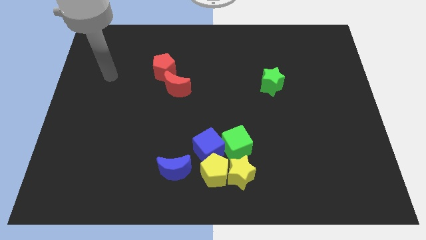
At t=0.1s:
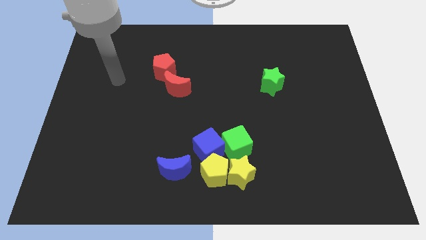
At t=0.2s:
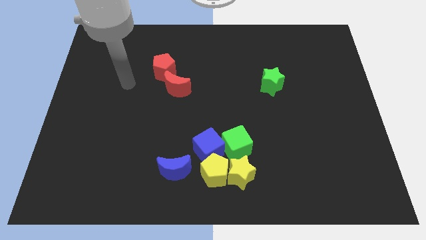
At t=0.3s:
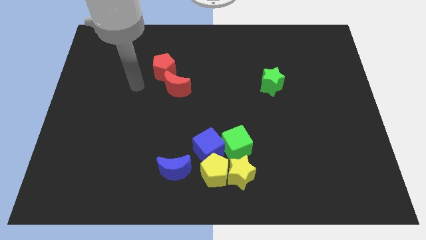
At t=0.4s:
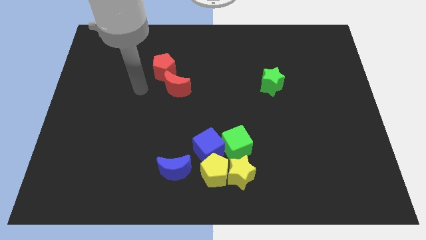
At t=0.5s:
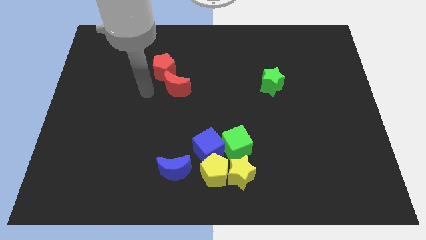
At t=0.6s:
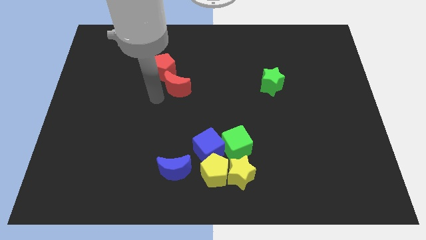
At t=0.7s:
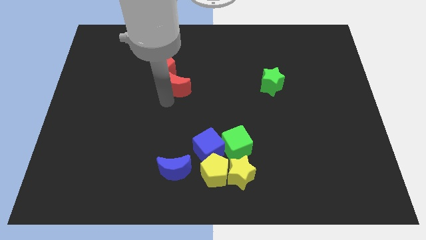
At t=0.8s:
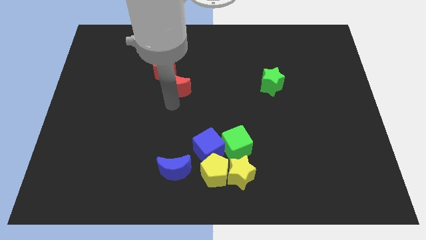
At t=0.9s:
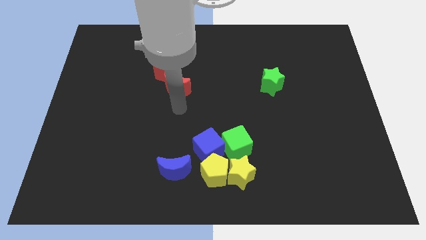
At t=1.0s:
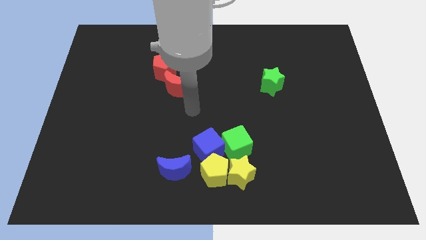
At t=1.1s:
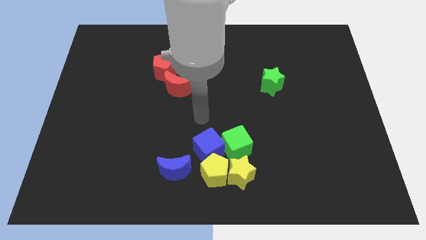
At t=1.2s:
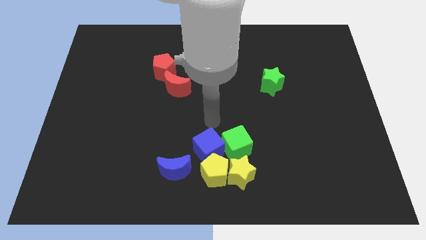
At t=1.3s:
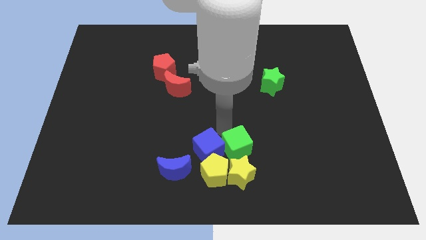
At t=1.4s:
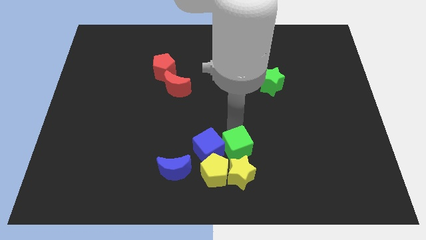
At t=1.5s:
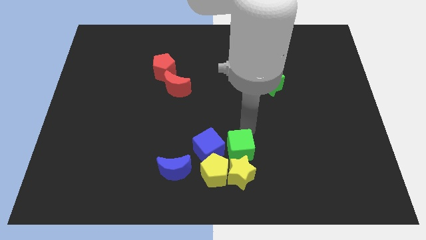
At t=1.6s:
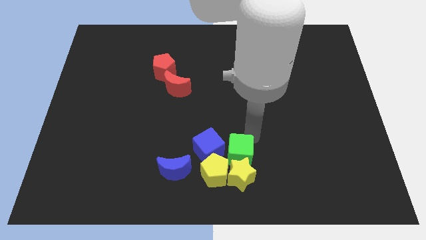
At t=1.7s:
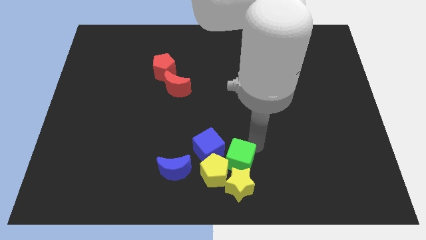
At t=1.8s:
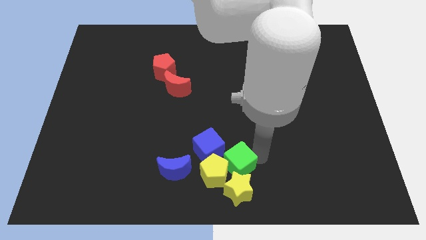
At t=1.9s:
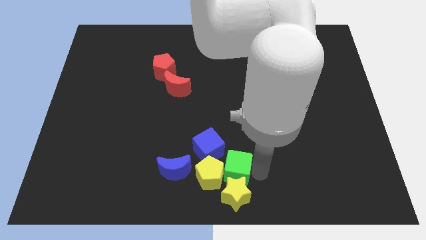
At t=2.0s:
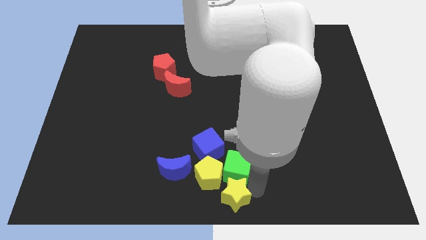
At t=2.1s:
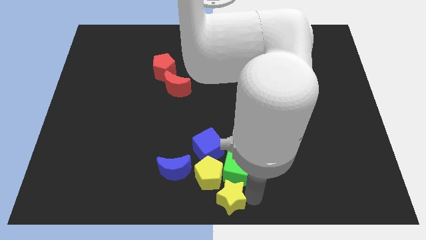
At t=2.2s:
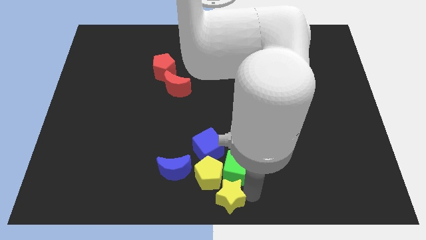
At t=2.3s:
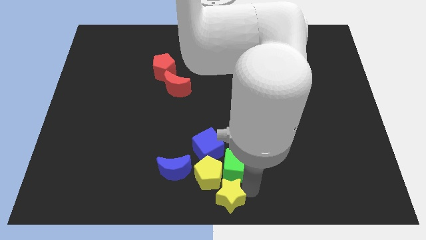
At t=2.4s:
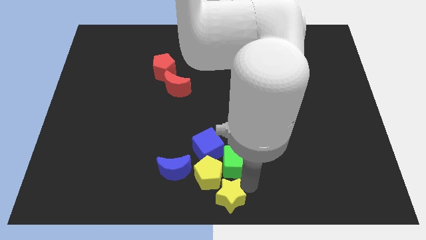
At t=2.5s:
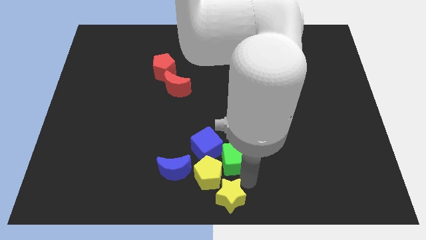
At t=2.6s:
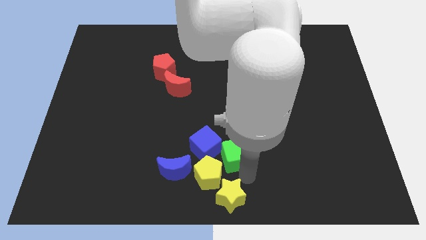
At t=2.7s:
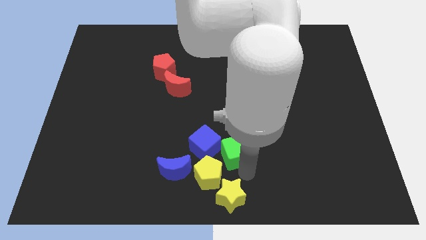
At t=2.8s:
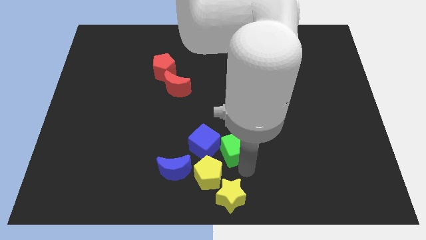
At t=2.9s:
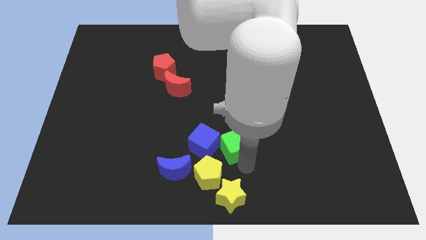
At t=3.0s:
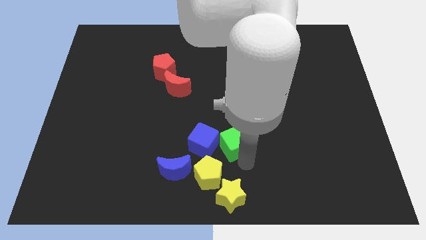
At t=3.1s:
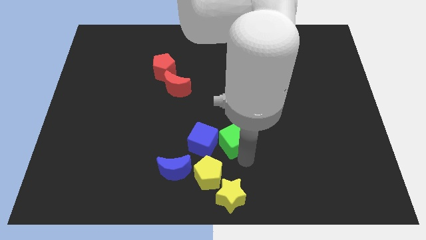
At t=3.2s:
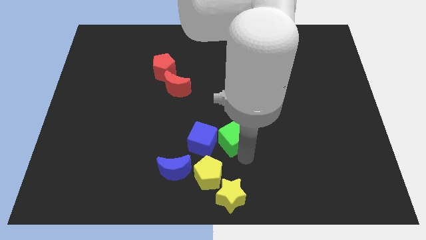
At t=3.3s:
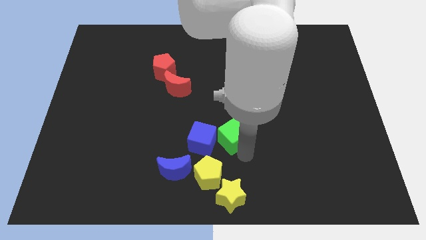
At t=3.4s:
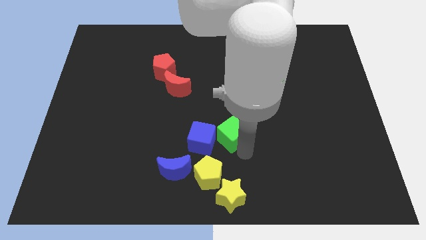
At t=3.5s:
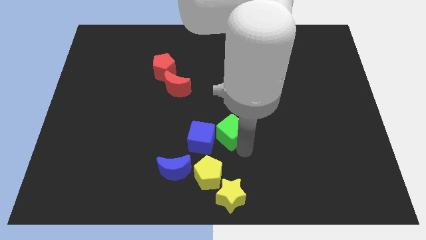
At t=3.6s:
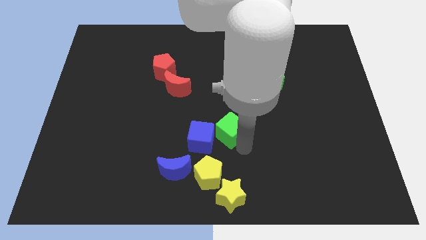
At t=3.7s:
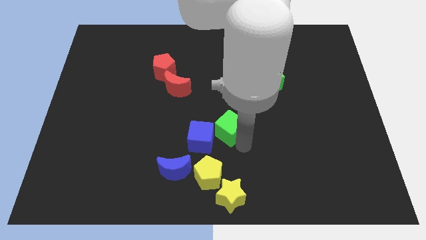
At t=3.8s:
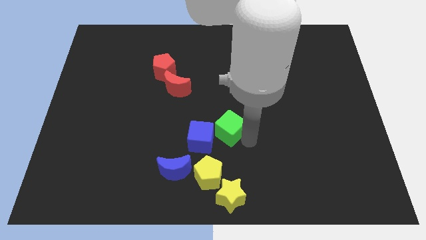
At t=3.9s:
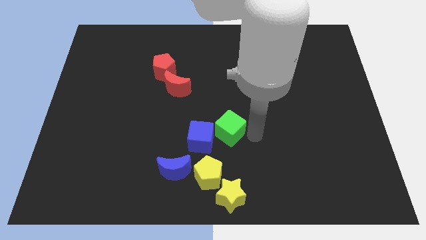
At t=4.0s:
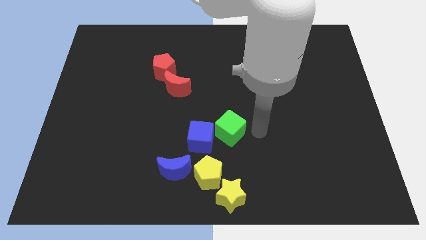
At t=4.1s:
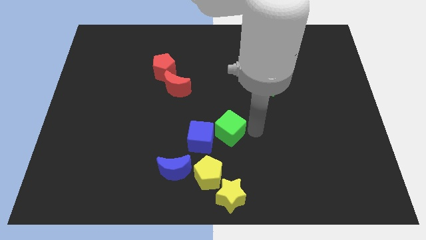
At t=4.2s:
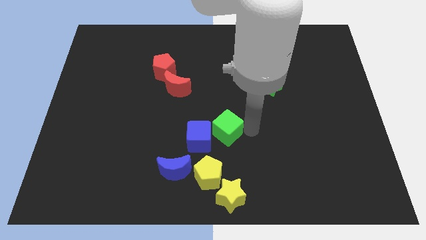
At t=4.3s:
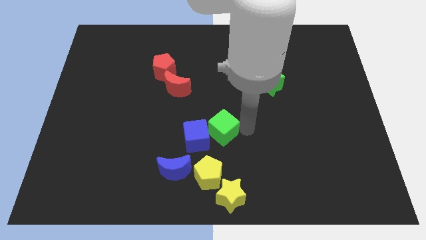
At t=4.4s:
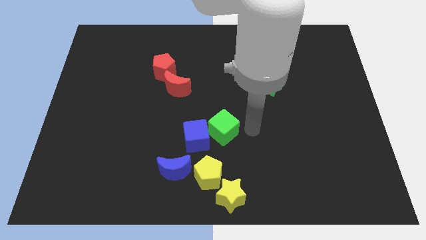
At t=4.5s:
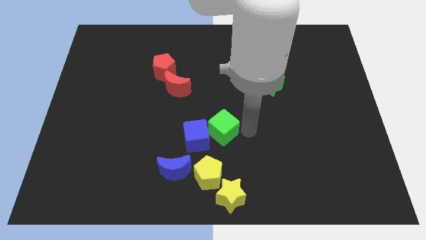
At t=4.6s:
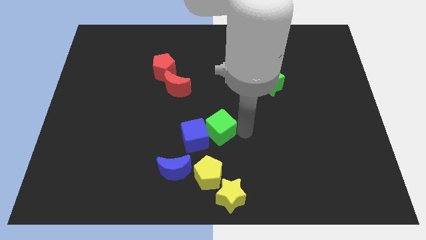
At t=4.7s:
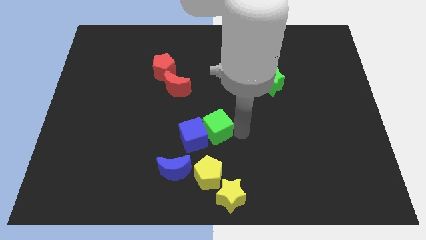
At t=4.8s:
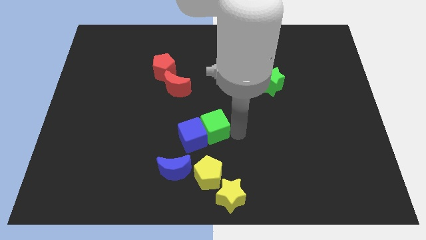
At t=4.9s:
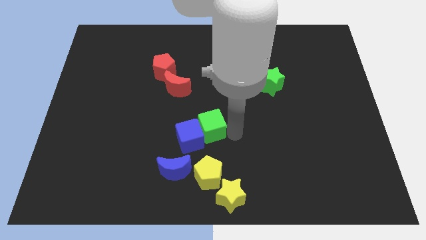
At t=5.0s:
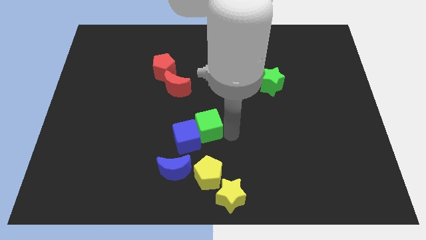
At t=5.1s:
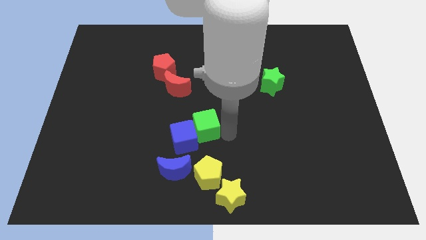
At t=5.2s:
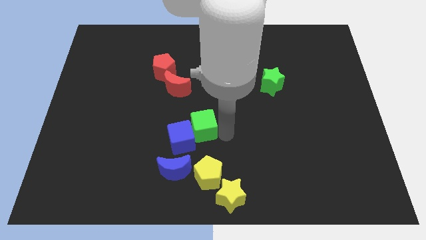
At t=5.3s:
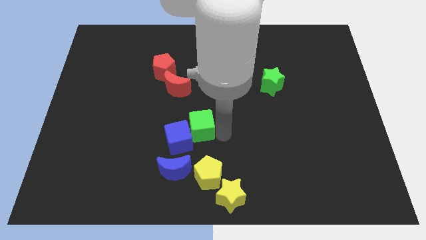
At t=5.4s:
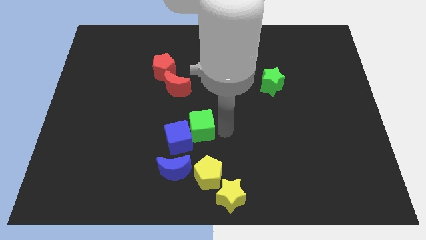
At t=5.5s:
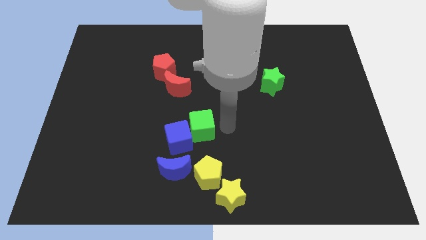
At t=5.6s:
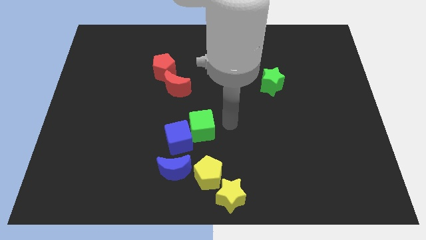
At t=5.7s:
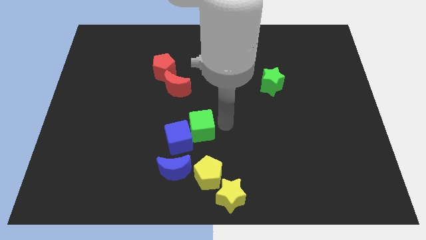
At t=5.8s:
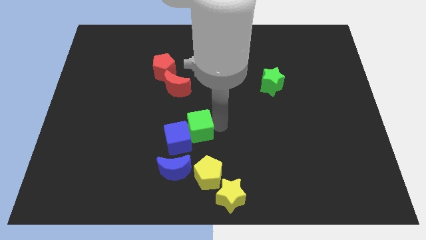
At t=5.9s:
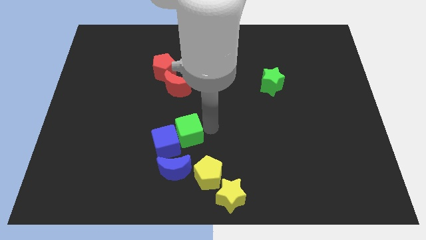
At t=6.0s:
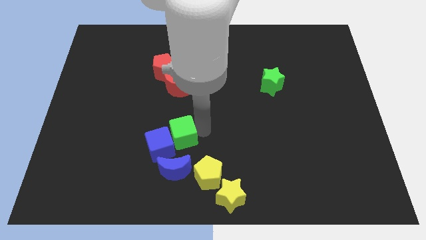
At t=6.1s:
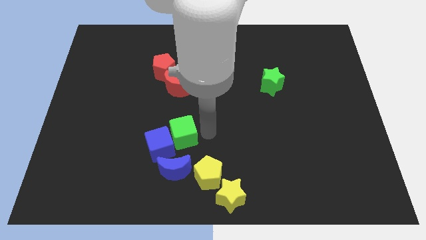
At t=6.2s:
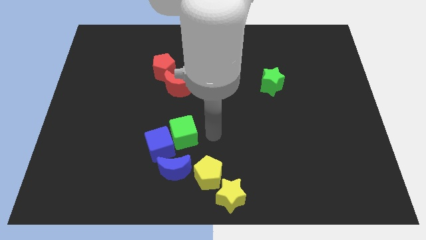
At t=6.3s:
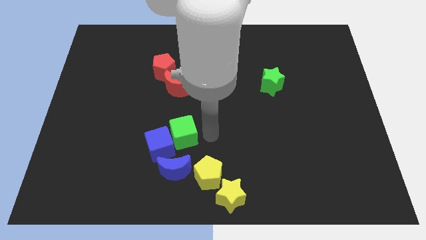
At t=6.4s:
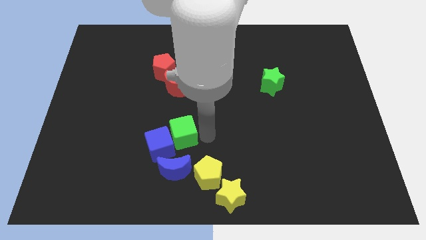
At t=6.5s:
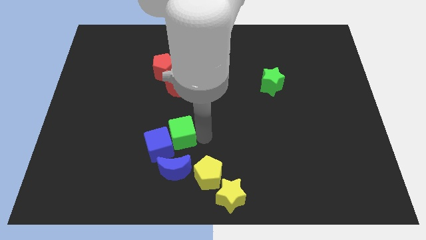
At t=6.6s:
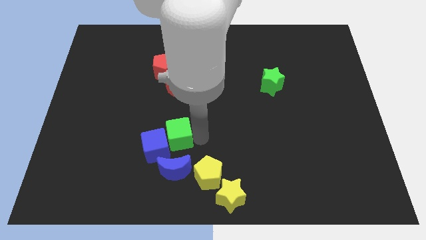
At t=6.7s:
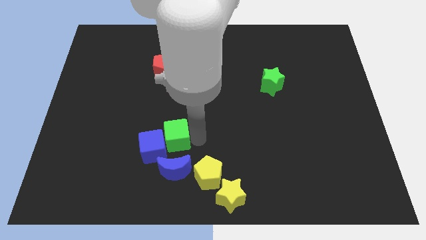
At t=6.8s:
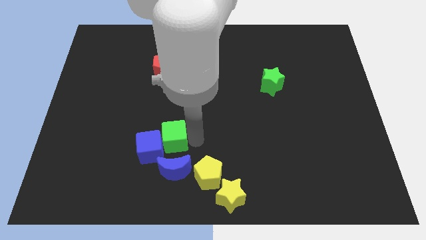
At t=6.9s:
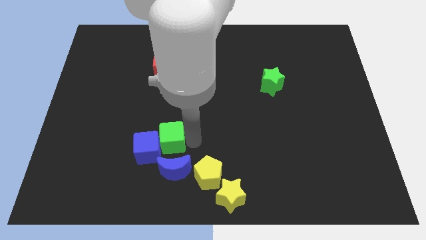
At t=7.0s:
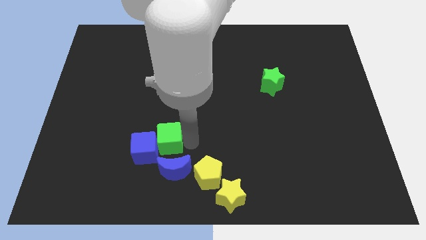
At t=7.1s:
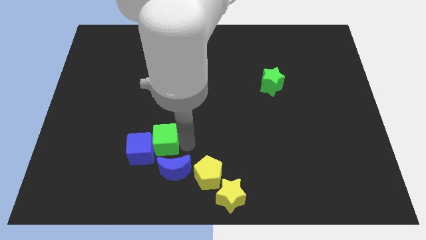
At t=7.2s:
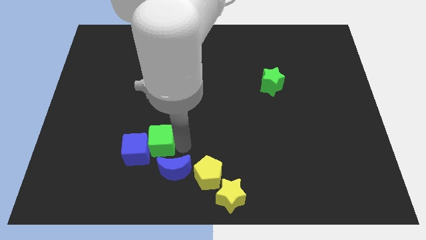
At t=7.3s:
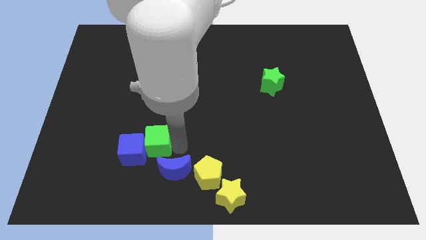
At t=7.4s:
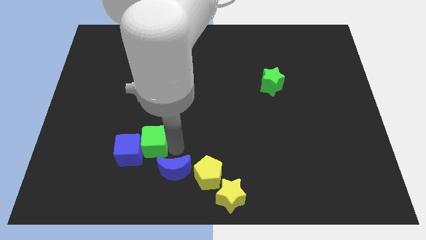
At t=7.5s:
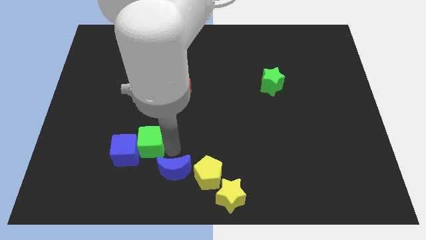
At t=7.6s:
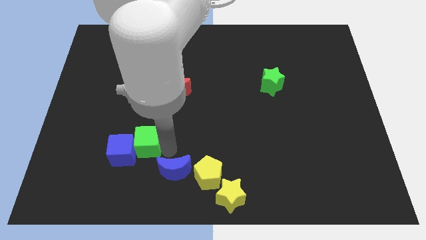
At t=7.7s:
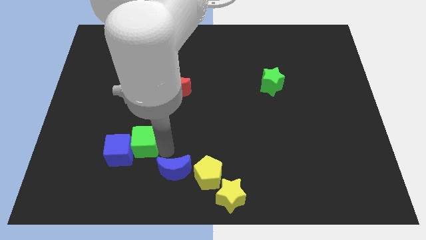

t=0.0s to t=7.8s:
push the green cube left
